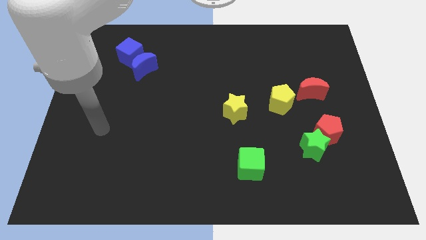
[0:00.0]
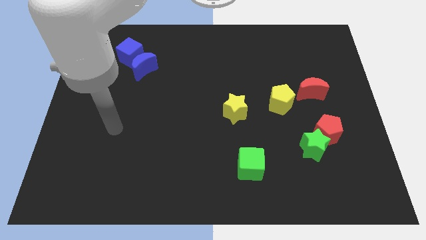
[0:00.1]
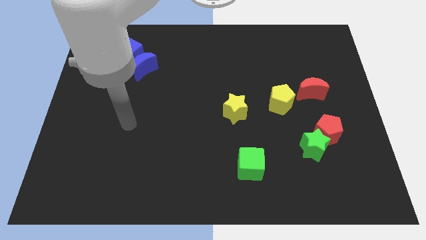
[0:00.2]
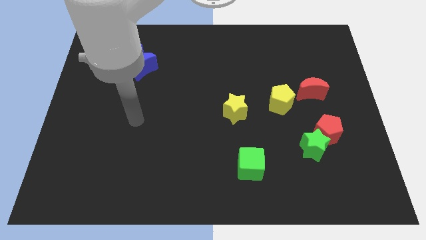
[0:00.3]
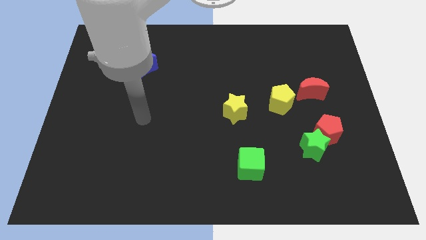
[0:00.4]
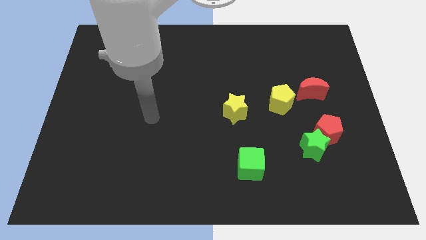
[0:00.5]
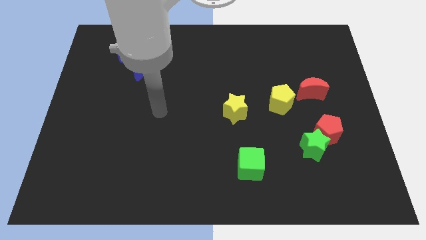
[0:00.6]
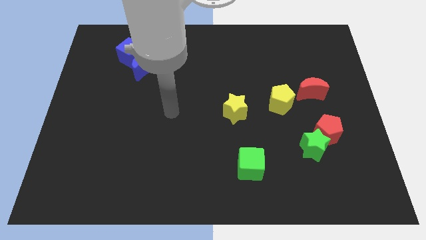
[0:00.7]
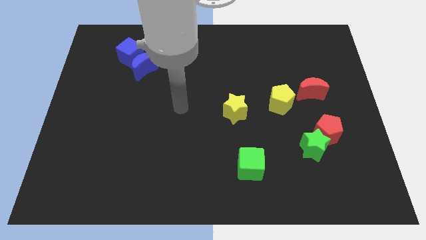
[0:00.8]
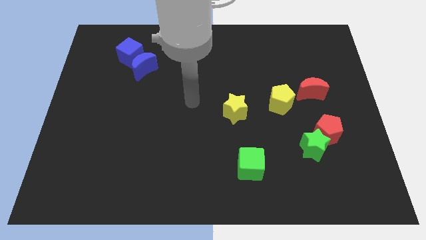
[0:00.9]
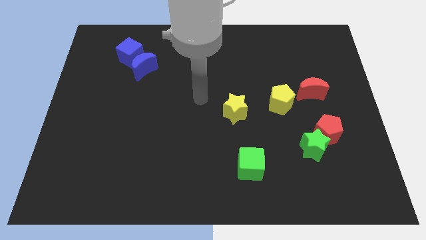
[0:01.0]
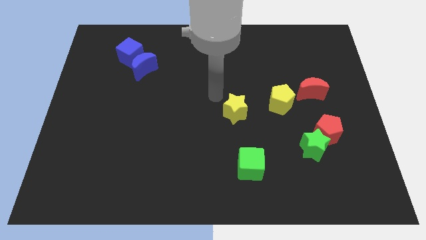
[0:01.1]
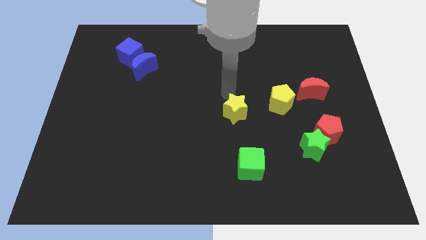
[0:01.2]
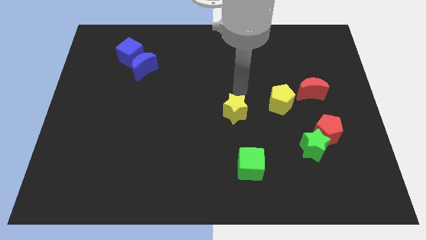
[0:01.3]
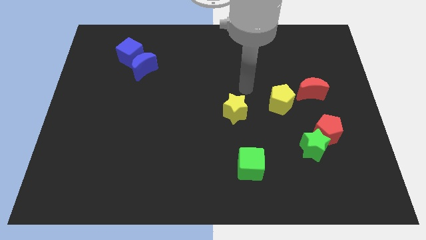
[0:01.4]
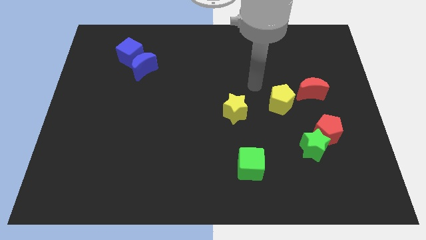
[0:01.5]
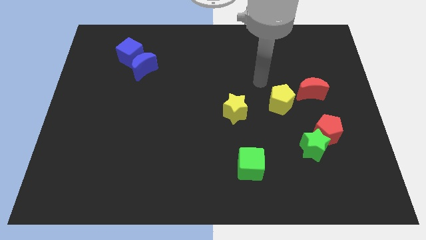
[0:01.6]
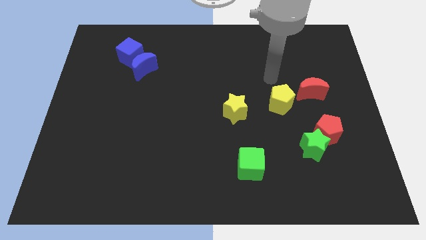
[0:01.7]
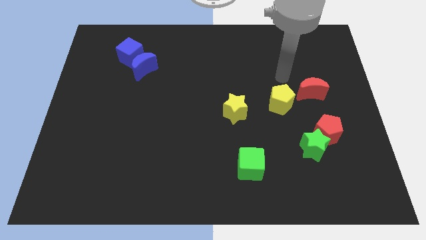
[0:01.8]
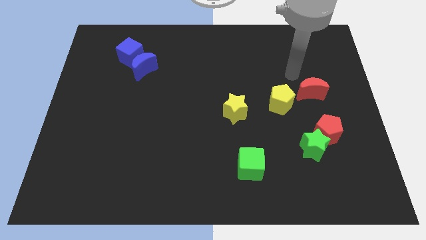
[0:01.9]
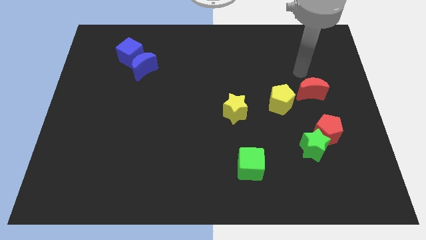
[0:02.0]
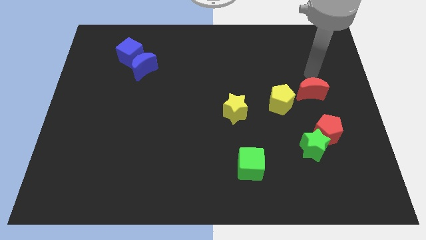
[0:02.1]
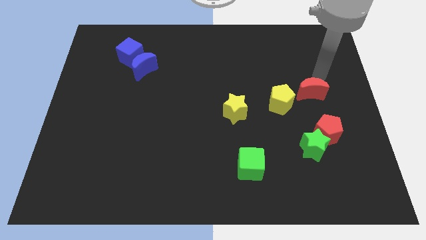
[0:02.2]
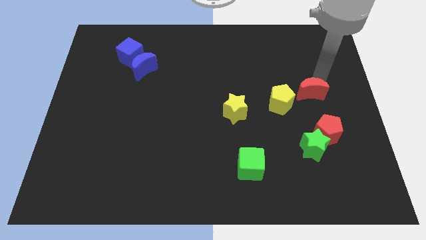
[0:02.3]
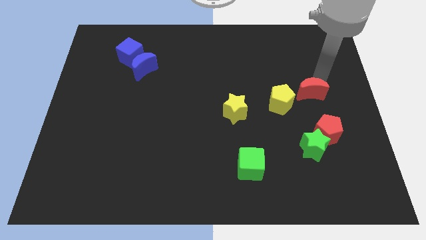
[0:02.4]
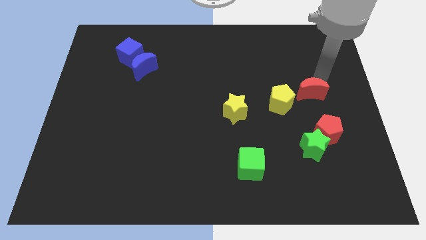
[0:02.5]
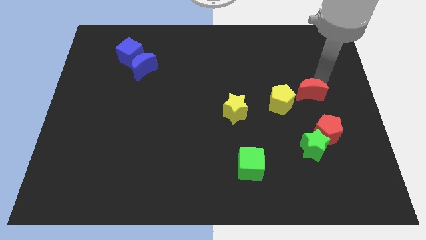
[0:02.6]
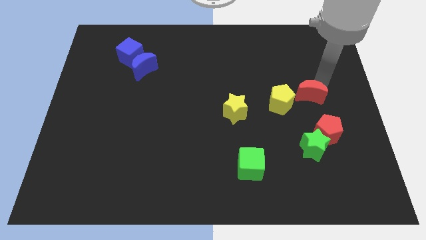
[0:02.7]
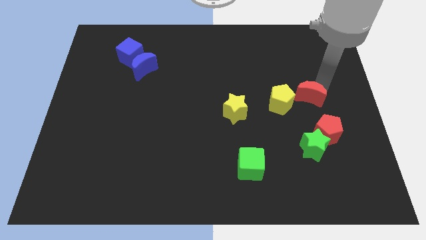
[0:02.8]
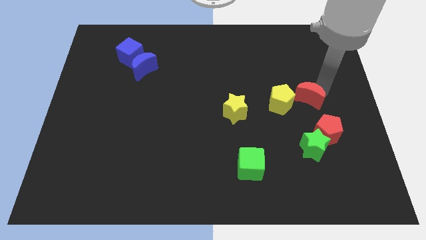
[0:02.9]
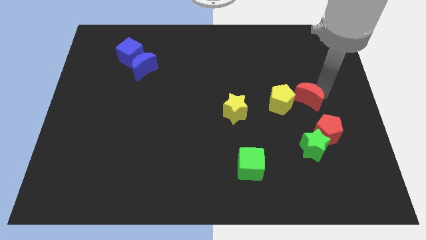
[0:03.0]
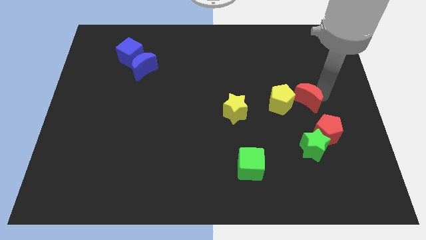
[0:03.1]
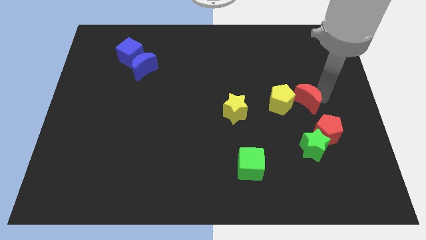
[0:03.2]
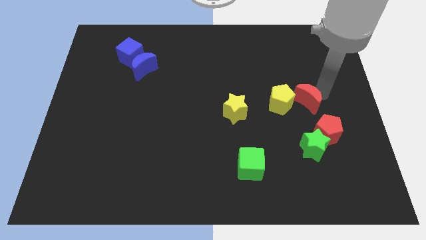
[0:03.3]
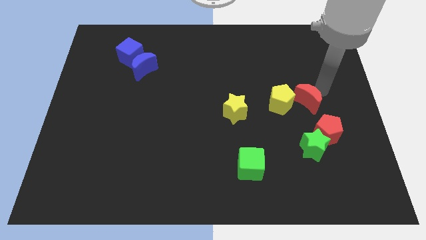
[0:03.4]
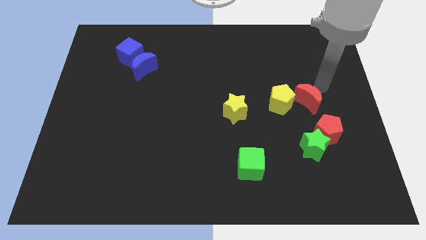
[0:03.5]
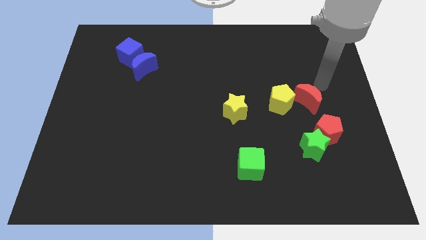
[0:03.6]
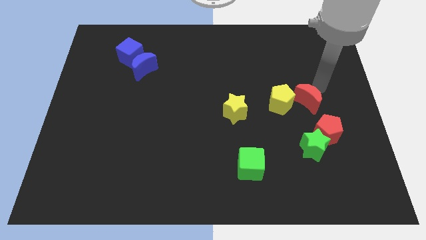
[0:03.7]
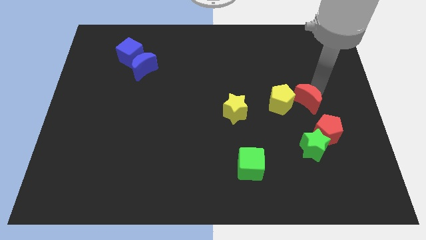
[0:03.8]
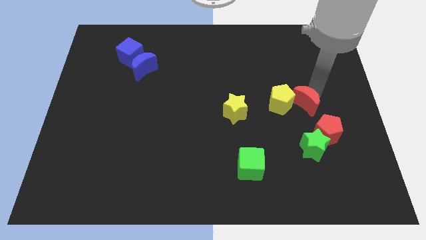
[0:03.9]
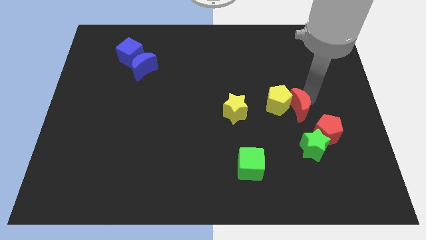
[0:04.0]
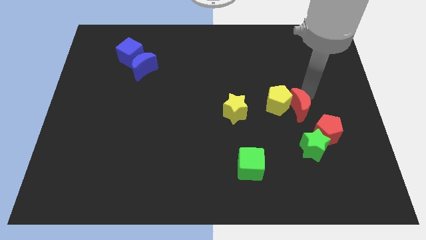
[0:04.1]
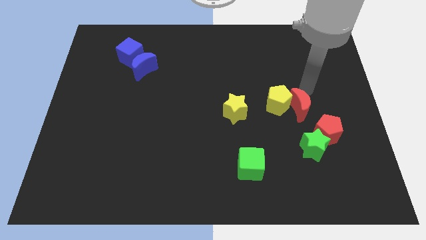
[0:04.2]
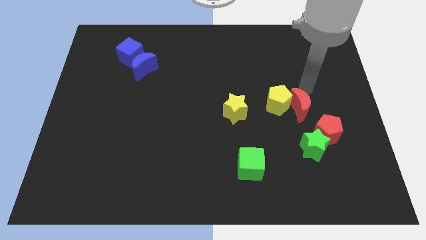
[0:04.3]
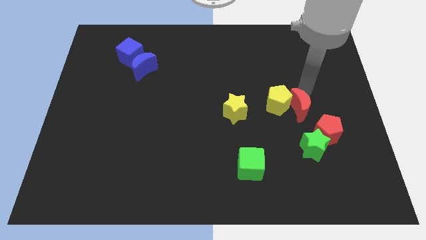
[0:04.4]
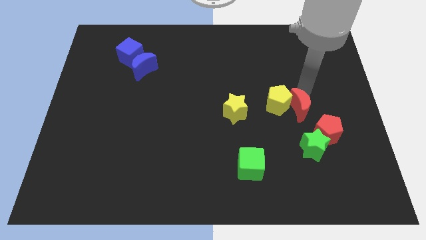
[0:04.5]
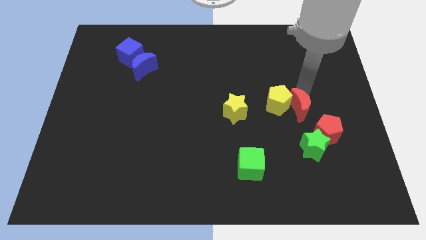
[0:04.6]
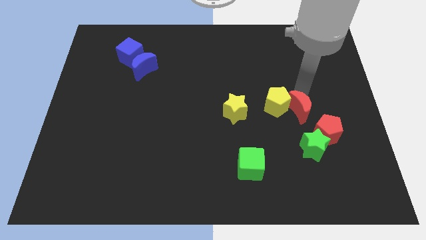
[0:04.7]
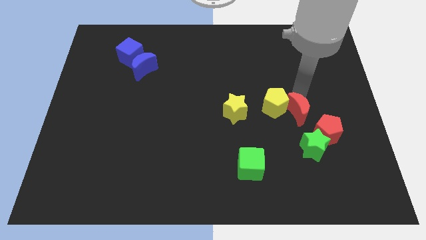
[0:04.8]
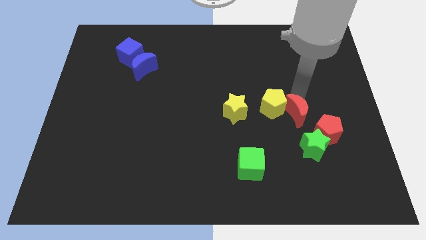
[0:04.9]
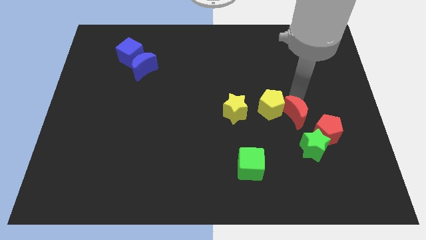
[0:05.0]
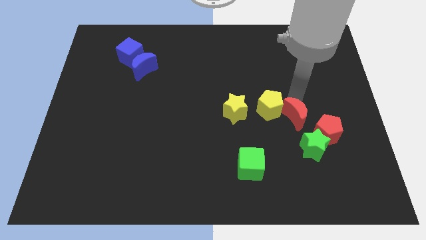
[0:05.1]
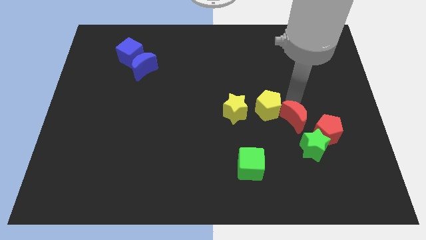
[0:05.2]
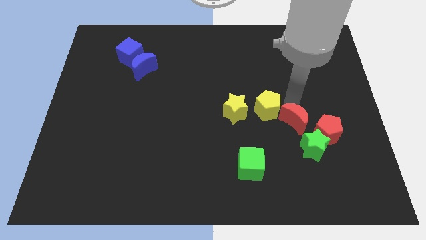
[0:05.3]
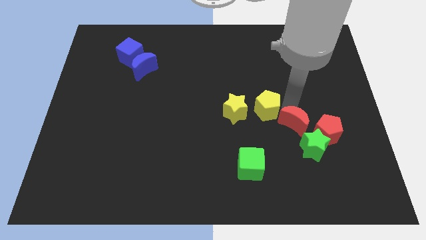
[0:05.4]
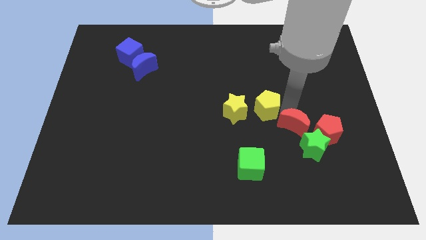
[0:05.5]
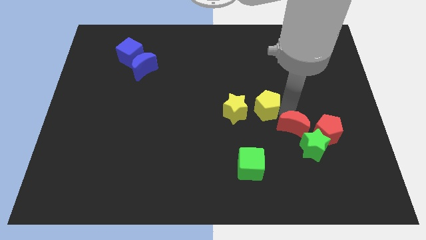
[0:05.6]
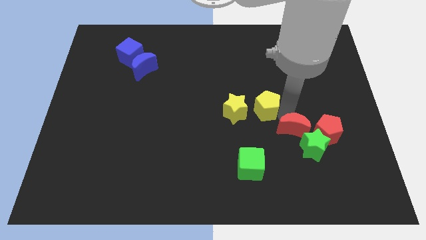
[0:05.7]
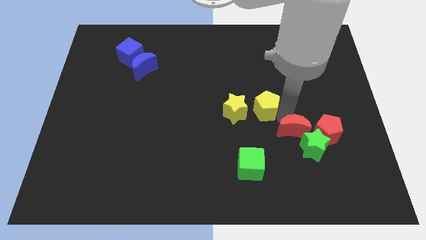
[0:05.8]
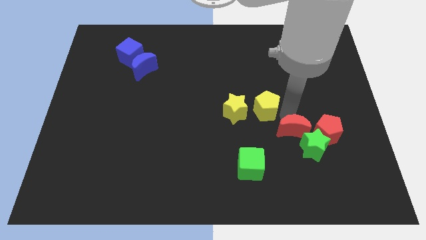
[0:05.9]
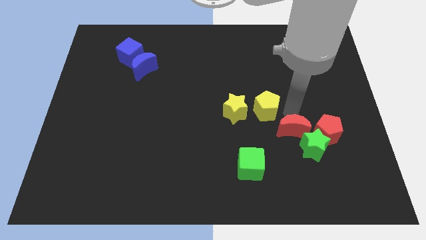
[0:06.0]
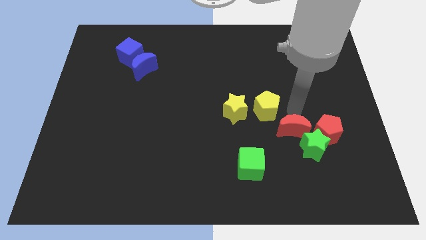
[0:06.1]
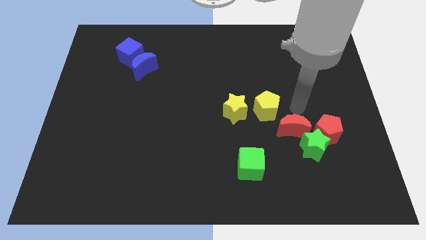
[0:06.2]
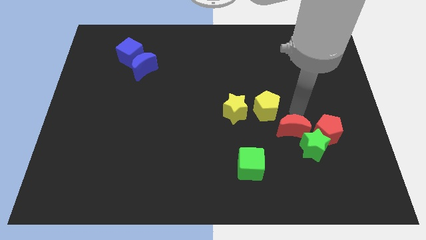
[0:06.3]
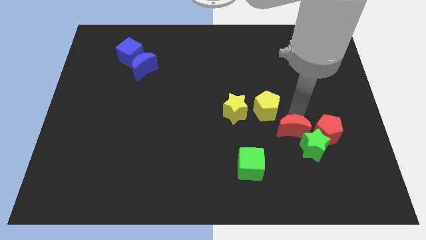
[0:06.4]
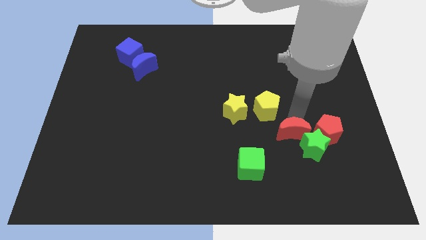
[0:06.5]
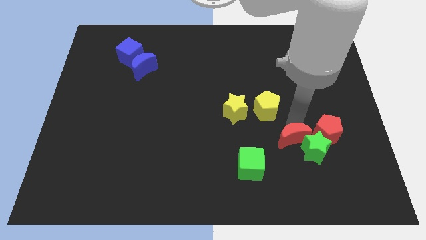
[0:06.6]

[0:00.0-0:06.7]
move the red moon diagonally down and to the left of the red pentagon

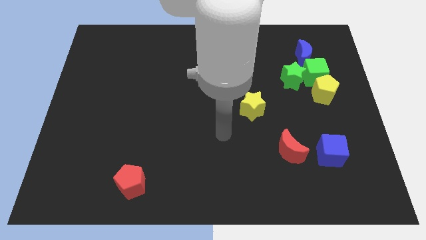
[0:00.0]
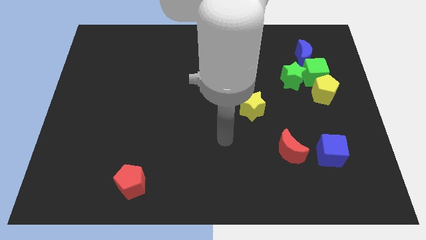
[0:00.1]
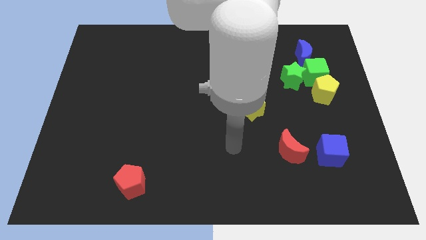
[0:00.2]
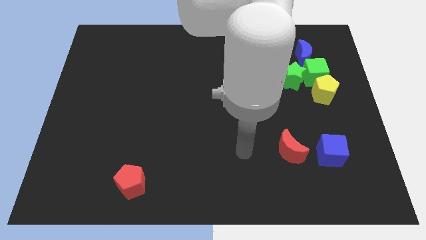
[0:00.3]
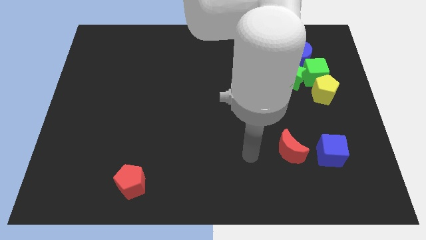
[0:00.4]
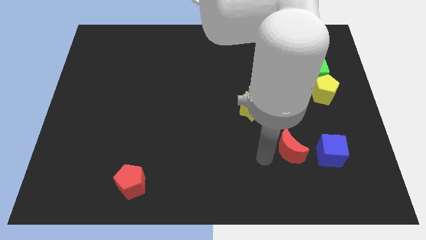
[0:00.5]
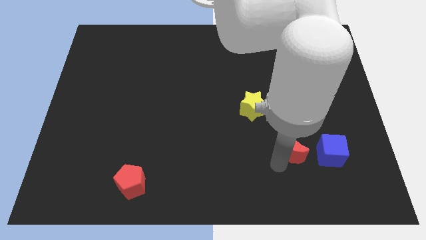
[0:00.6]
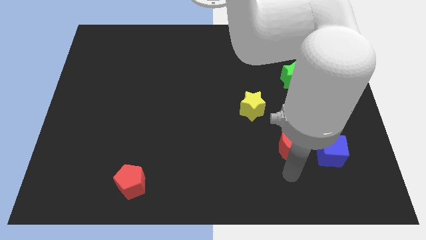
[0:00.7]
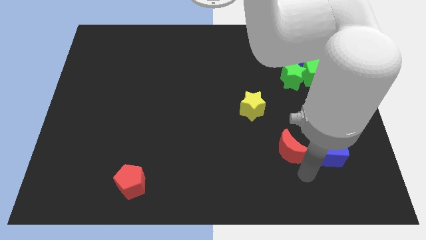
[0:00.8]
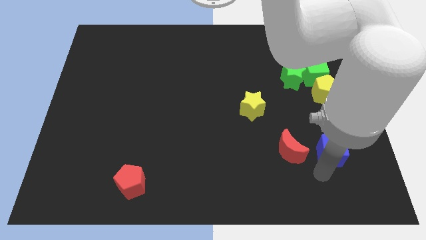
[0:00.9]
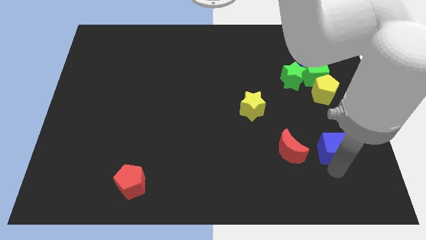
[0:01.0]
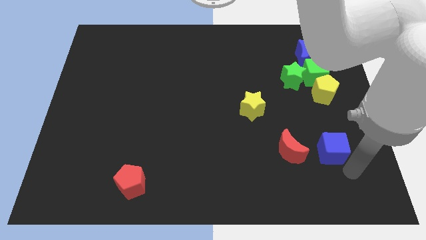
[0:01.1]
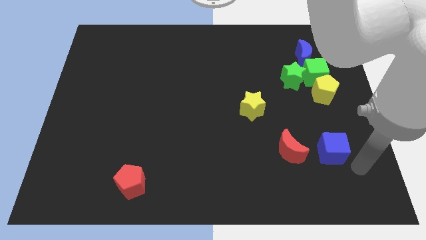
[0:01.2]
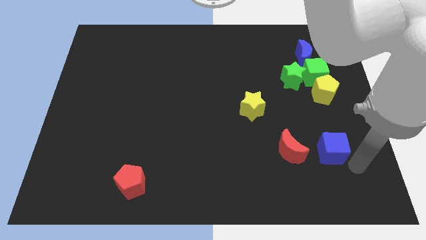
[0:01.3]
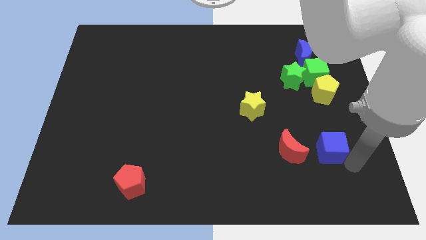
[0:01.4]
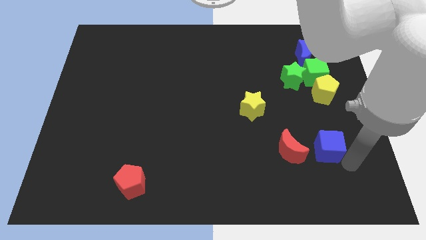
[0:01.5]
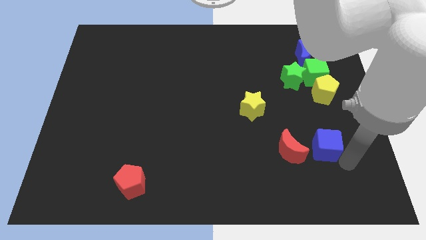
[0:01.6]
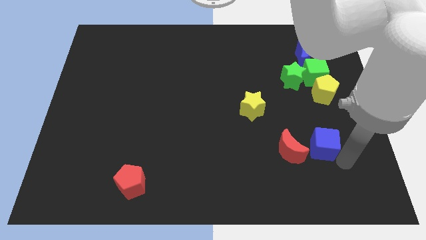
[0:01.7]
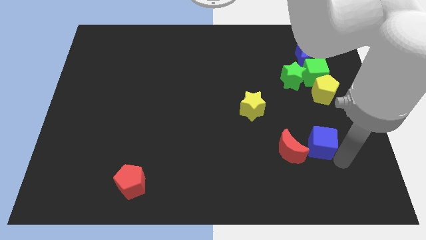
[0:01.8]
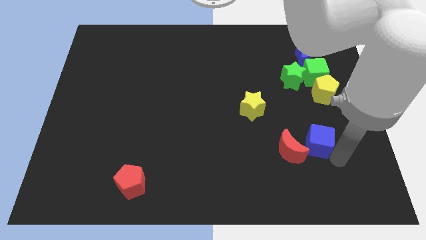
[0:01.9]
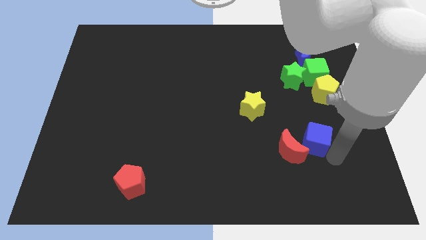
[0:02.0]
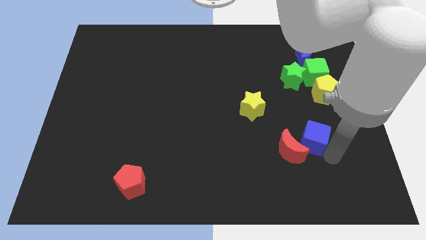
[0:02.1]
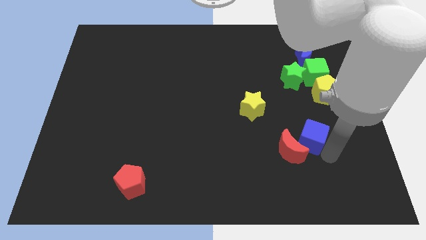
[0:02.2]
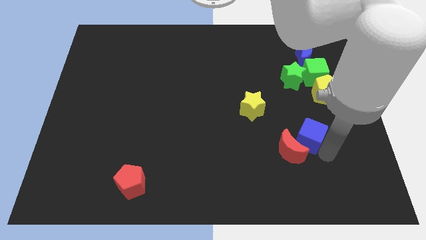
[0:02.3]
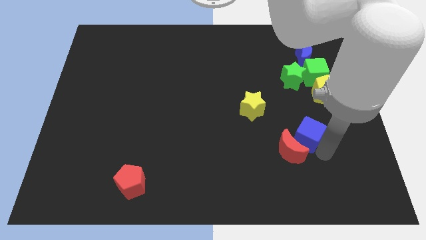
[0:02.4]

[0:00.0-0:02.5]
move the blue cube to the top of the red moon
